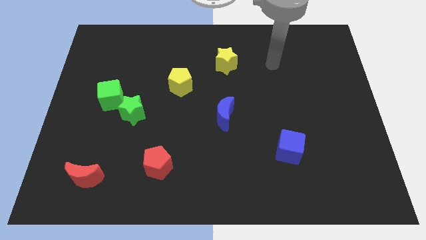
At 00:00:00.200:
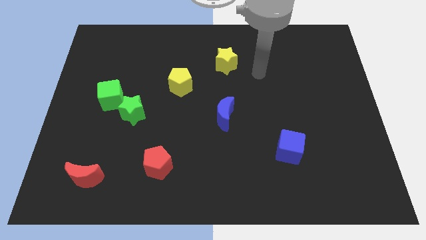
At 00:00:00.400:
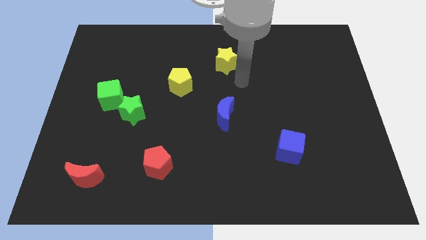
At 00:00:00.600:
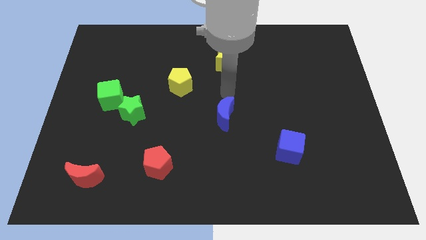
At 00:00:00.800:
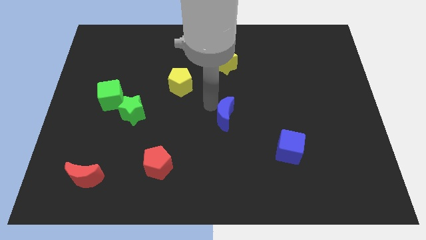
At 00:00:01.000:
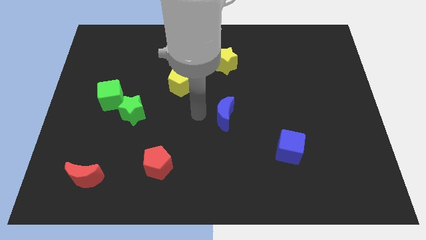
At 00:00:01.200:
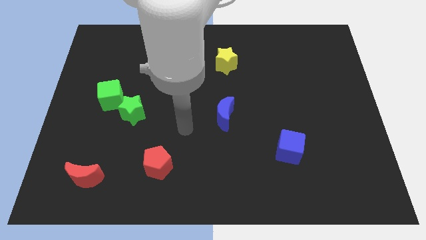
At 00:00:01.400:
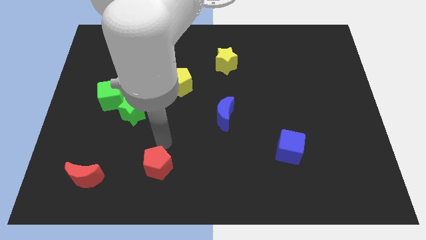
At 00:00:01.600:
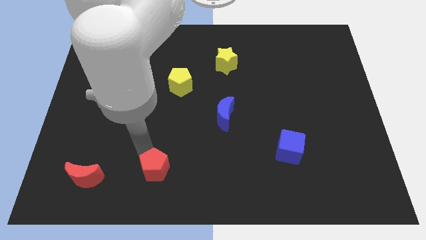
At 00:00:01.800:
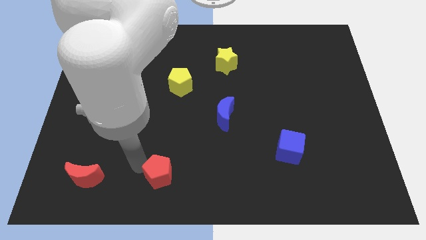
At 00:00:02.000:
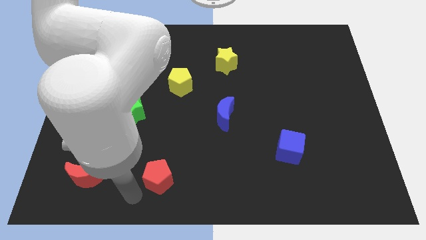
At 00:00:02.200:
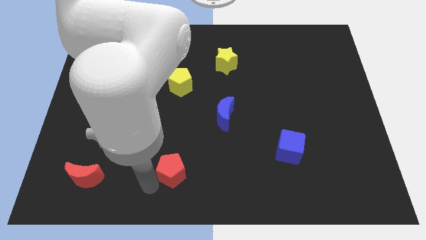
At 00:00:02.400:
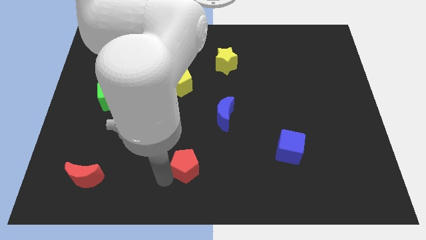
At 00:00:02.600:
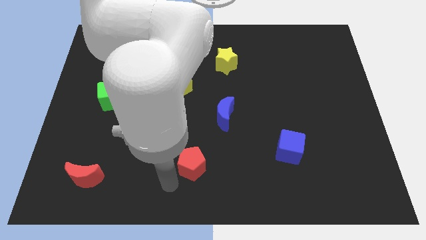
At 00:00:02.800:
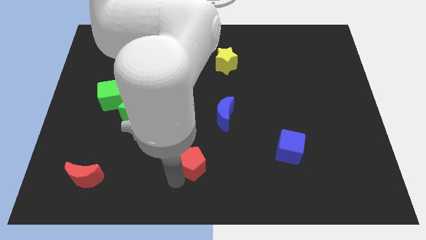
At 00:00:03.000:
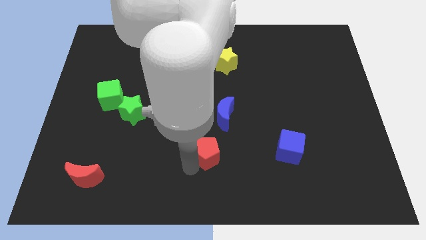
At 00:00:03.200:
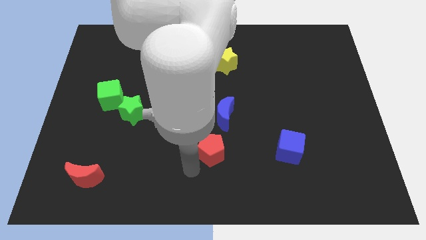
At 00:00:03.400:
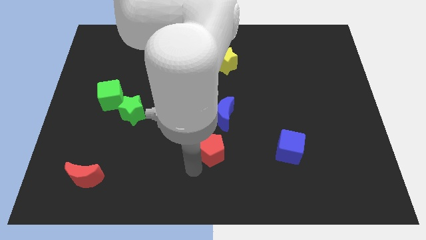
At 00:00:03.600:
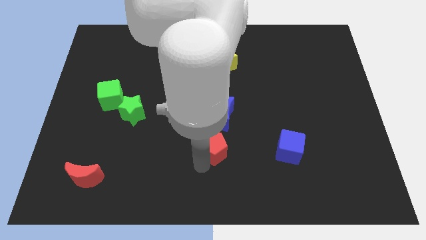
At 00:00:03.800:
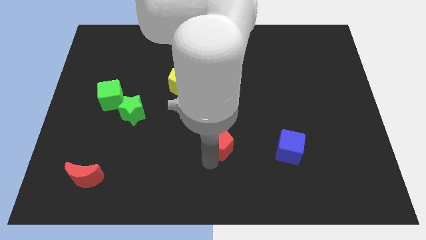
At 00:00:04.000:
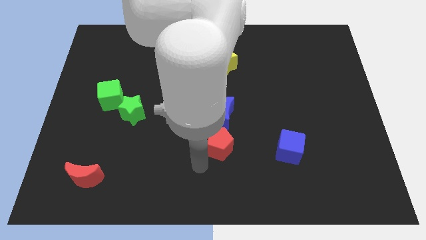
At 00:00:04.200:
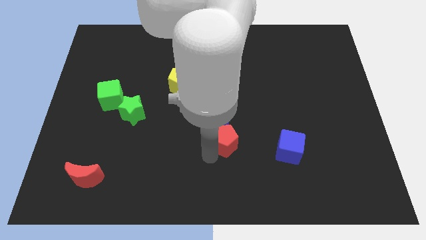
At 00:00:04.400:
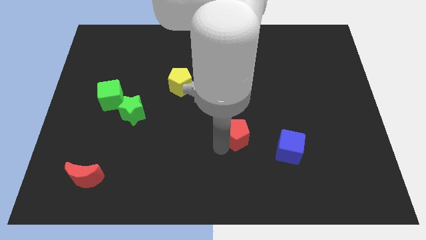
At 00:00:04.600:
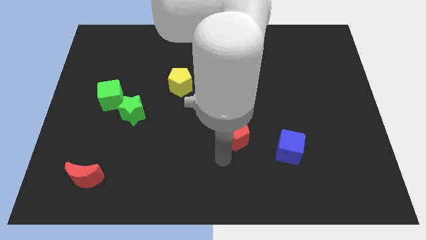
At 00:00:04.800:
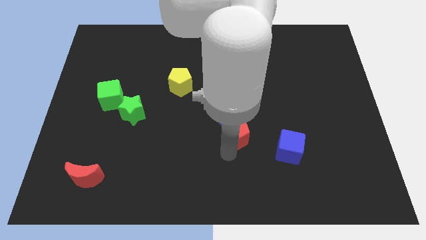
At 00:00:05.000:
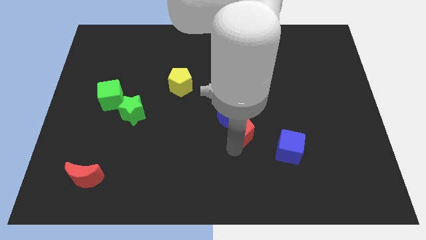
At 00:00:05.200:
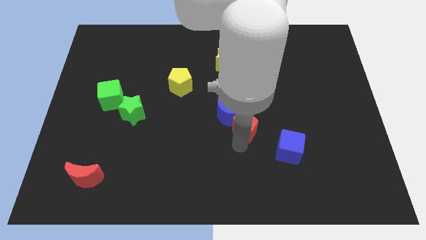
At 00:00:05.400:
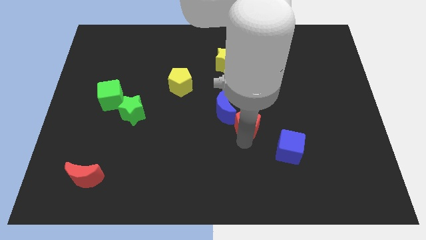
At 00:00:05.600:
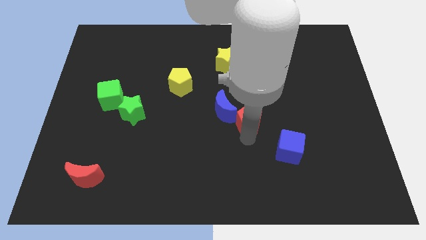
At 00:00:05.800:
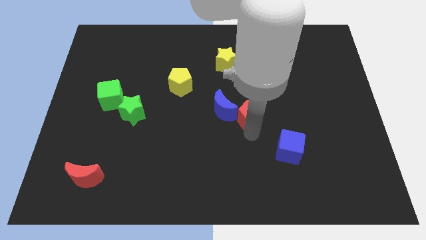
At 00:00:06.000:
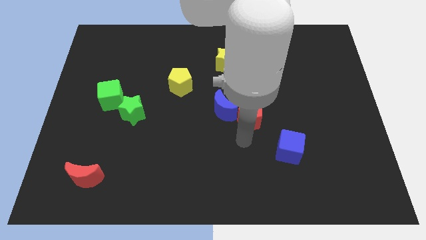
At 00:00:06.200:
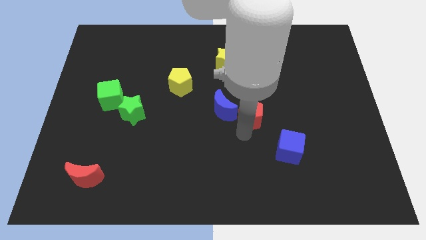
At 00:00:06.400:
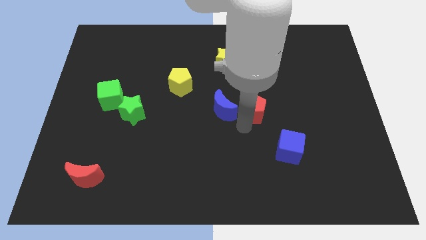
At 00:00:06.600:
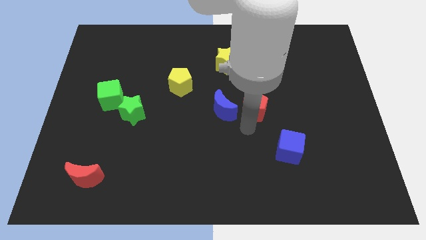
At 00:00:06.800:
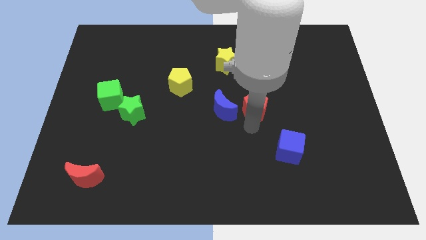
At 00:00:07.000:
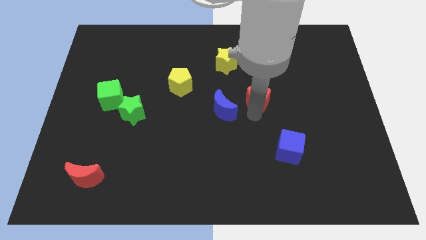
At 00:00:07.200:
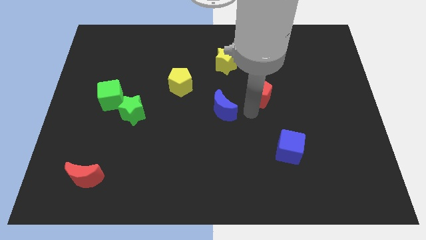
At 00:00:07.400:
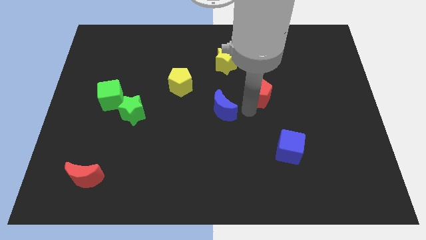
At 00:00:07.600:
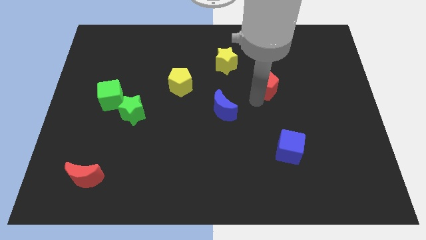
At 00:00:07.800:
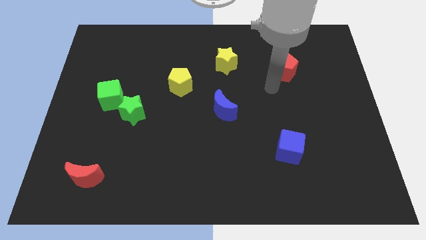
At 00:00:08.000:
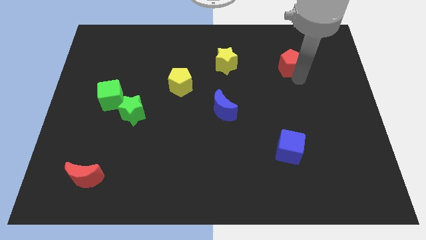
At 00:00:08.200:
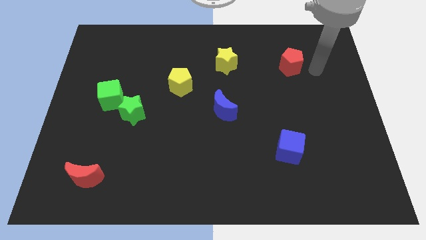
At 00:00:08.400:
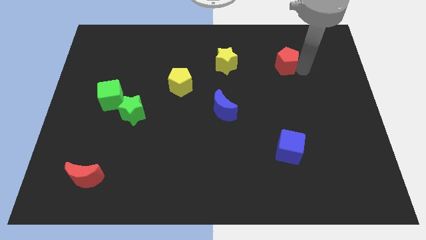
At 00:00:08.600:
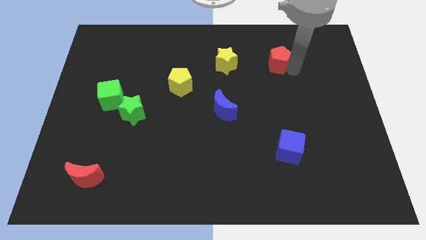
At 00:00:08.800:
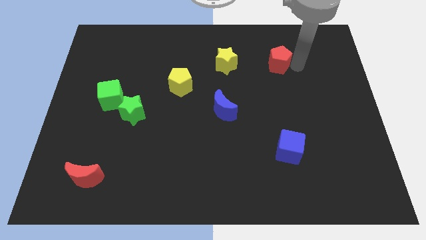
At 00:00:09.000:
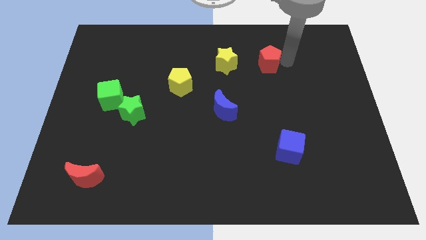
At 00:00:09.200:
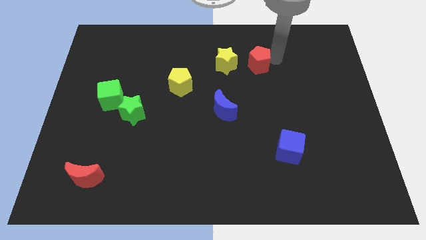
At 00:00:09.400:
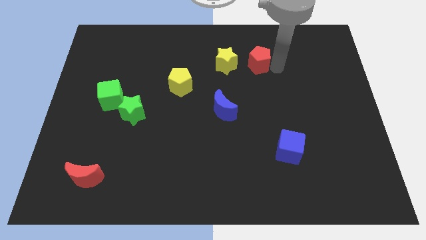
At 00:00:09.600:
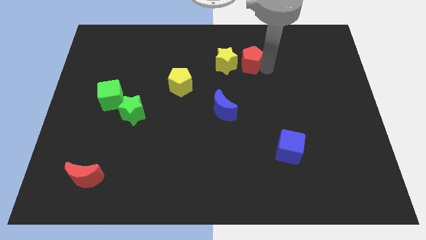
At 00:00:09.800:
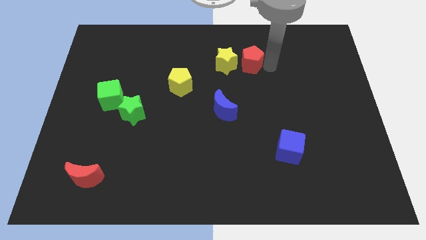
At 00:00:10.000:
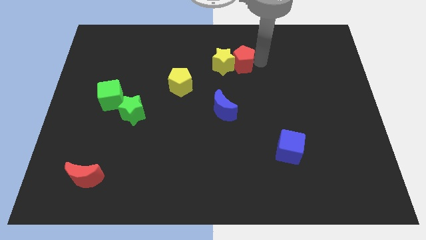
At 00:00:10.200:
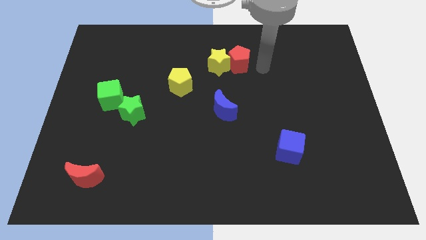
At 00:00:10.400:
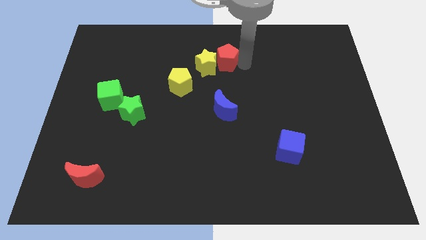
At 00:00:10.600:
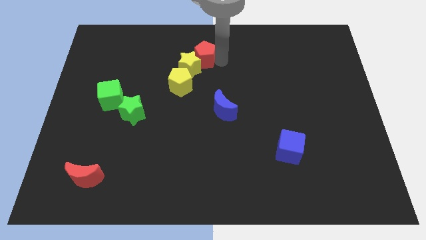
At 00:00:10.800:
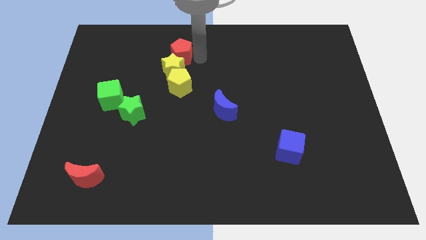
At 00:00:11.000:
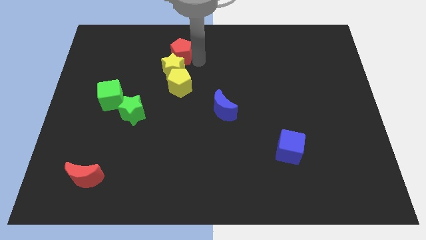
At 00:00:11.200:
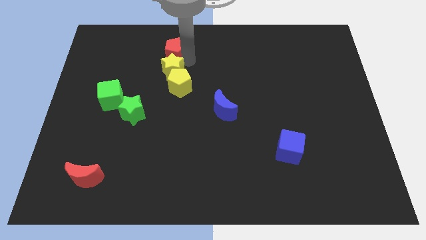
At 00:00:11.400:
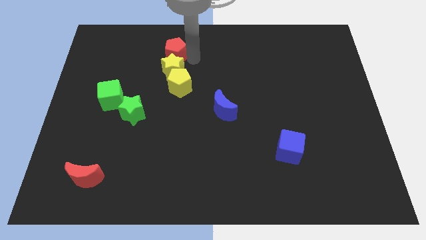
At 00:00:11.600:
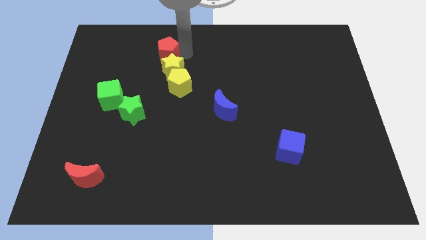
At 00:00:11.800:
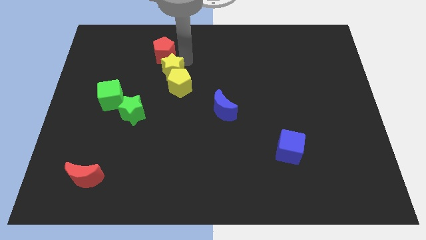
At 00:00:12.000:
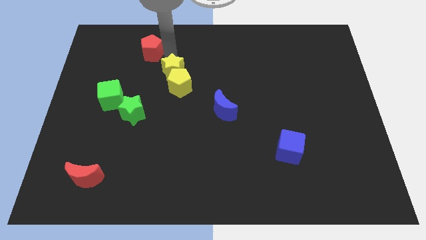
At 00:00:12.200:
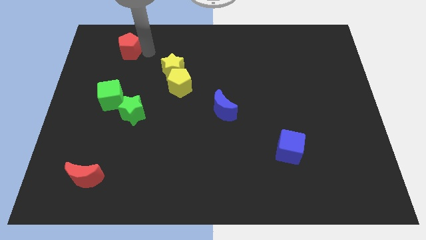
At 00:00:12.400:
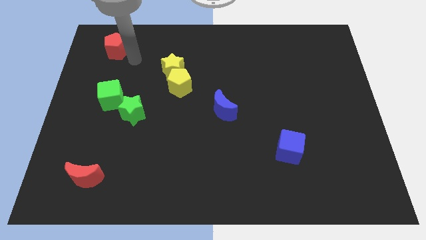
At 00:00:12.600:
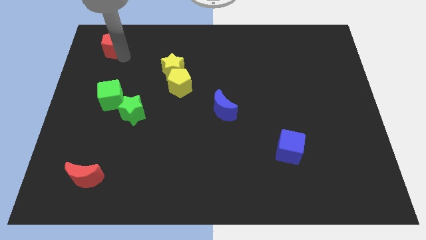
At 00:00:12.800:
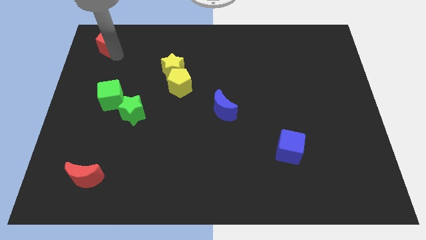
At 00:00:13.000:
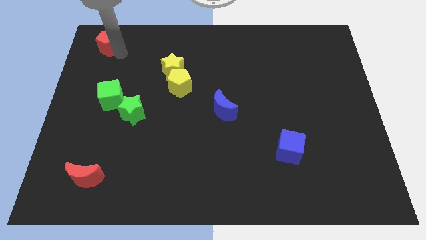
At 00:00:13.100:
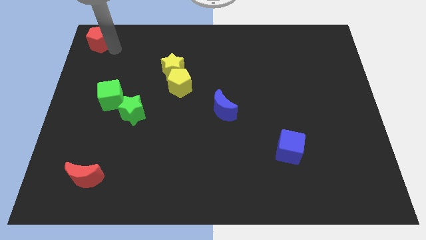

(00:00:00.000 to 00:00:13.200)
put the red pentagon to the top left
